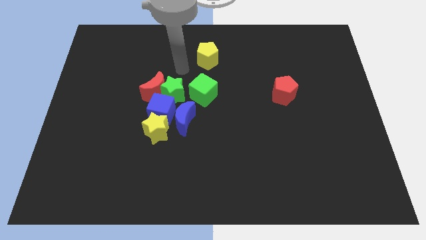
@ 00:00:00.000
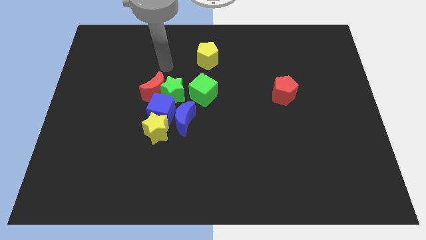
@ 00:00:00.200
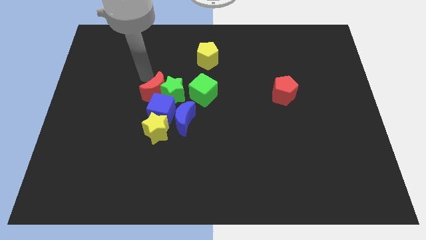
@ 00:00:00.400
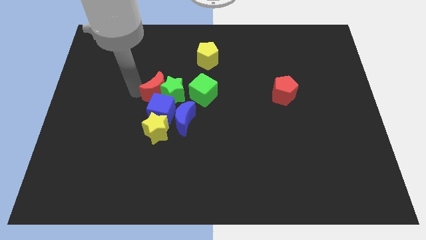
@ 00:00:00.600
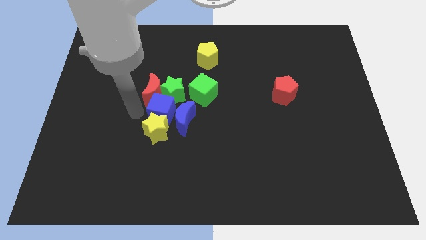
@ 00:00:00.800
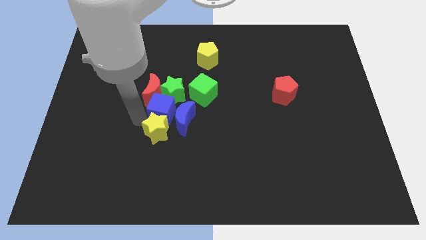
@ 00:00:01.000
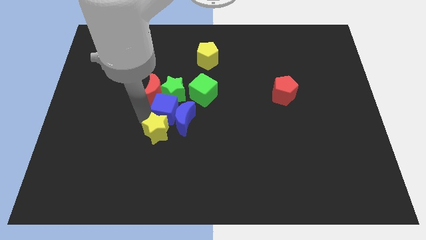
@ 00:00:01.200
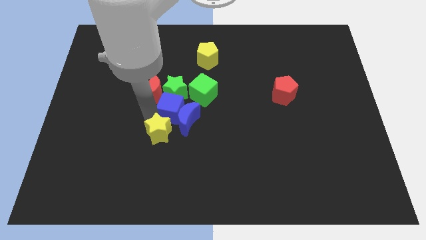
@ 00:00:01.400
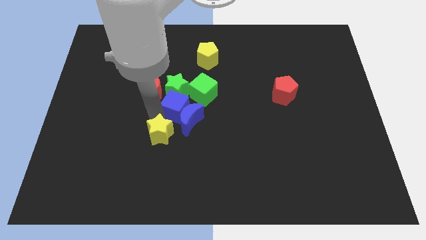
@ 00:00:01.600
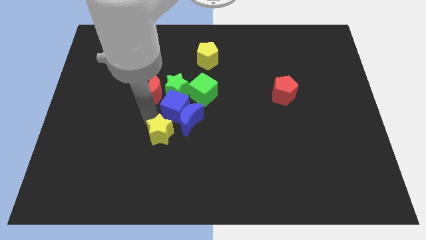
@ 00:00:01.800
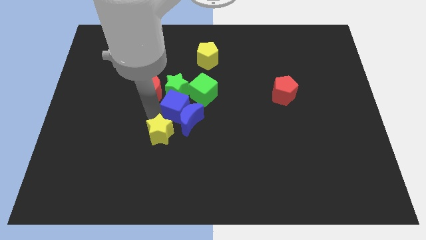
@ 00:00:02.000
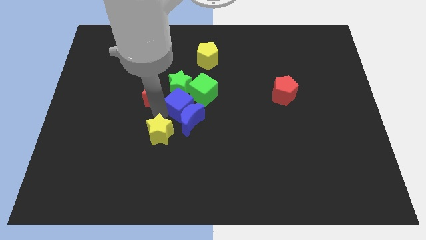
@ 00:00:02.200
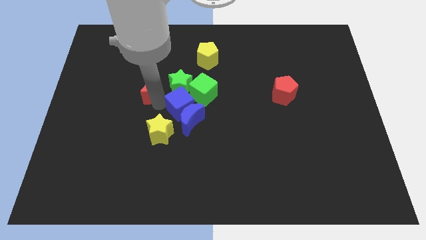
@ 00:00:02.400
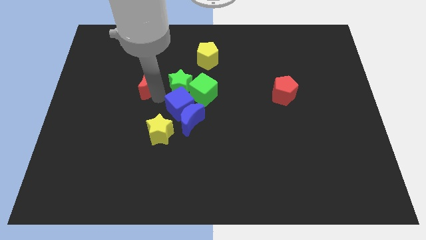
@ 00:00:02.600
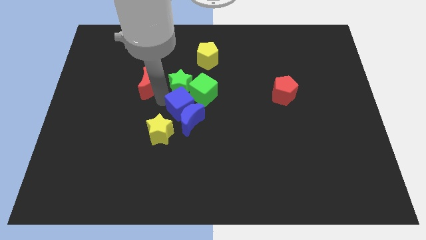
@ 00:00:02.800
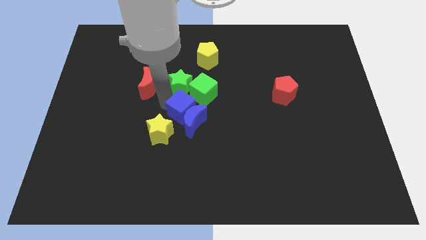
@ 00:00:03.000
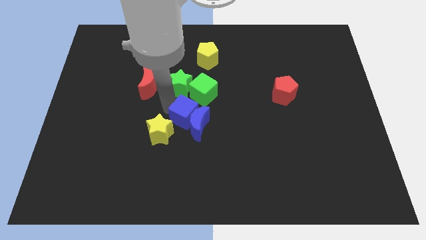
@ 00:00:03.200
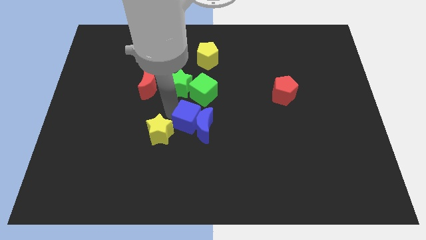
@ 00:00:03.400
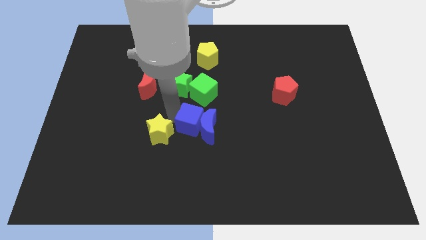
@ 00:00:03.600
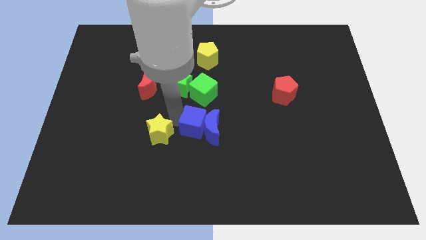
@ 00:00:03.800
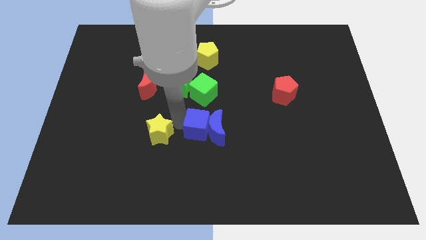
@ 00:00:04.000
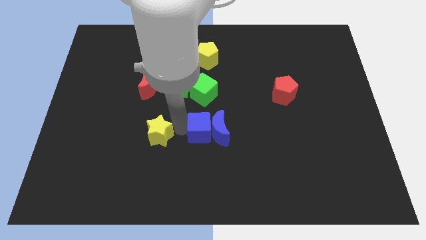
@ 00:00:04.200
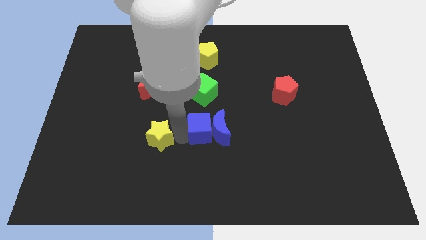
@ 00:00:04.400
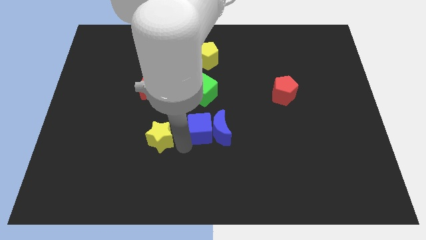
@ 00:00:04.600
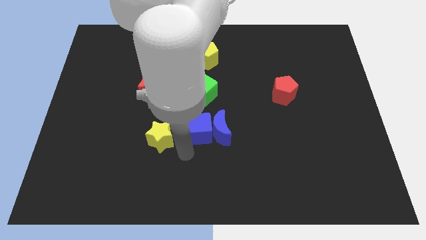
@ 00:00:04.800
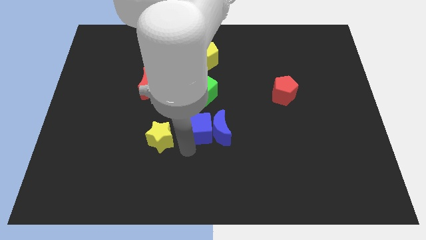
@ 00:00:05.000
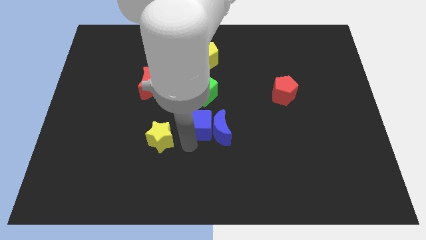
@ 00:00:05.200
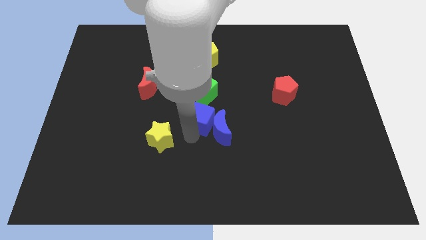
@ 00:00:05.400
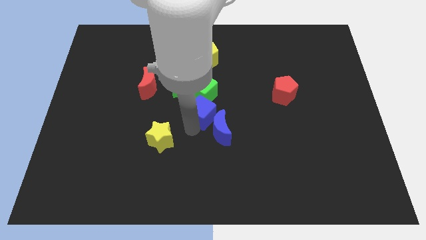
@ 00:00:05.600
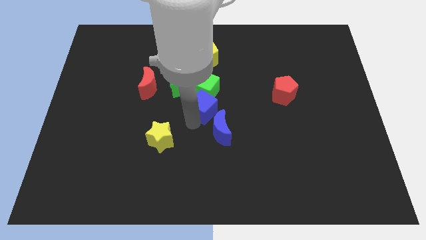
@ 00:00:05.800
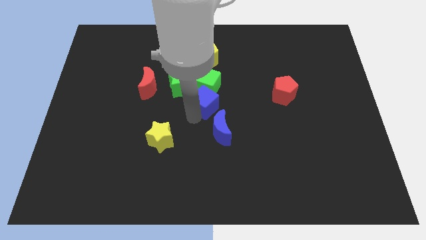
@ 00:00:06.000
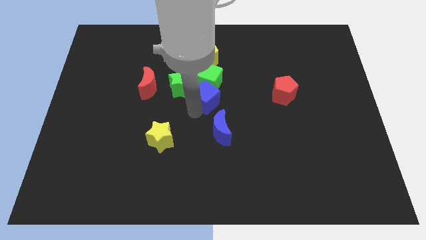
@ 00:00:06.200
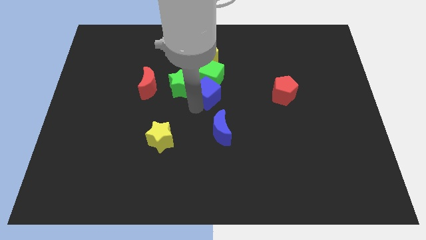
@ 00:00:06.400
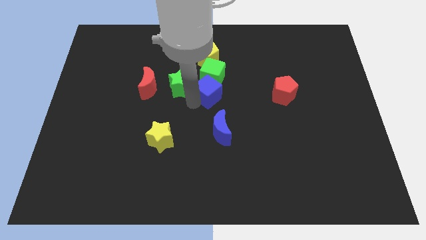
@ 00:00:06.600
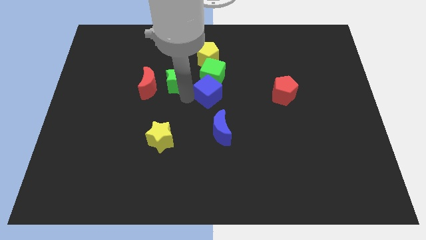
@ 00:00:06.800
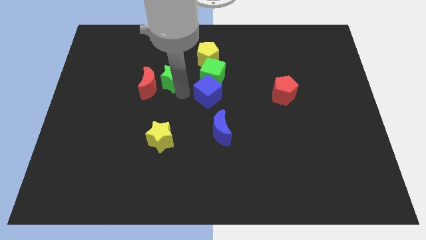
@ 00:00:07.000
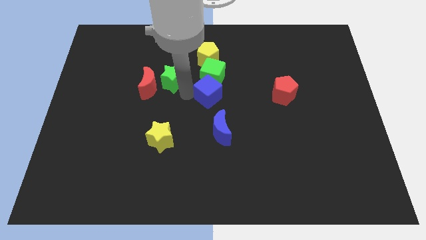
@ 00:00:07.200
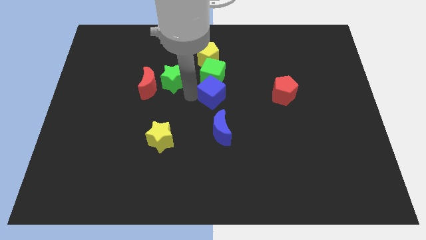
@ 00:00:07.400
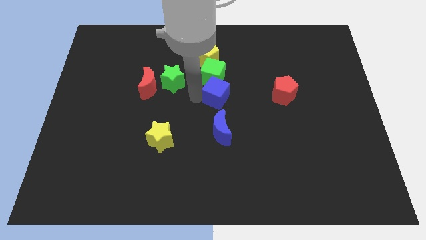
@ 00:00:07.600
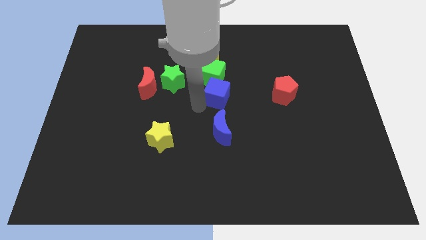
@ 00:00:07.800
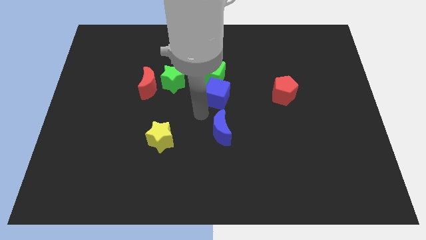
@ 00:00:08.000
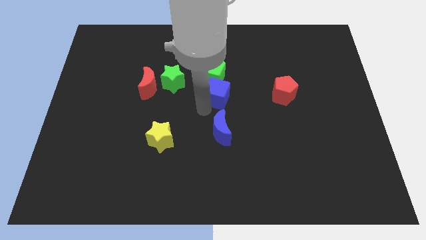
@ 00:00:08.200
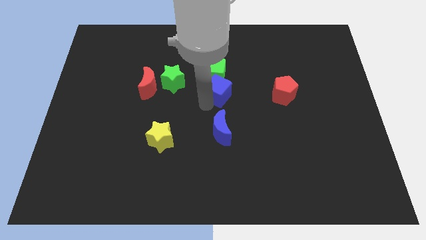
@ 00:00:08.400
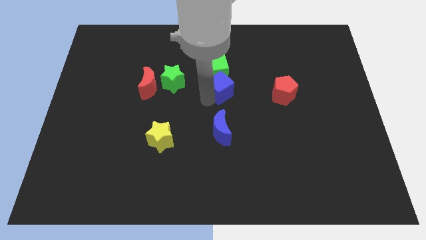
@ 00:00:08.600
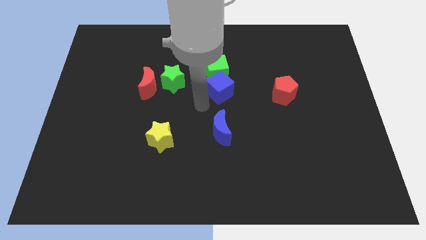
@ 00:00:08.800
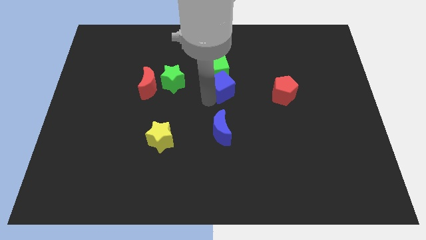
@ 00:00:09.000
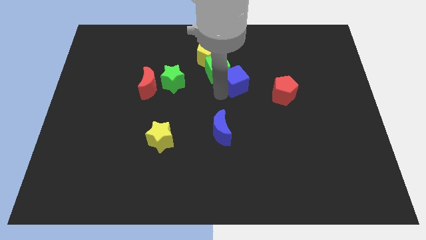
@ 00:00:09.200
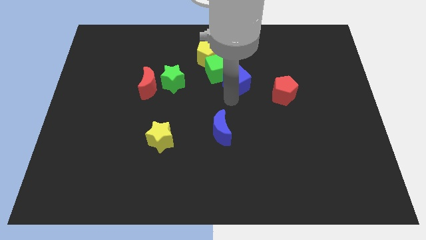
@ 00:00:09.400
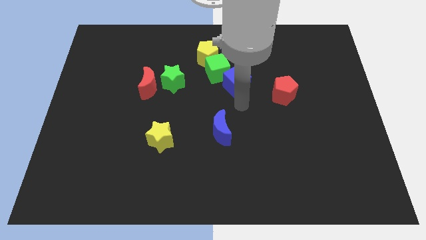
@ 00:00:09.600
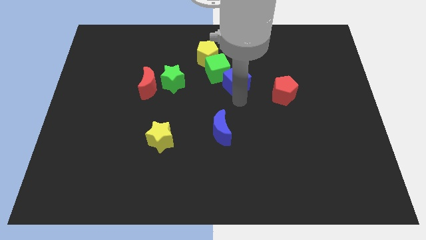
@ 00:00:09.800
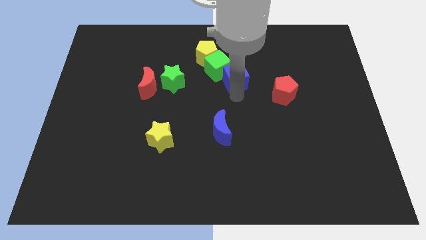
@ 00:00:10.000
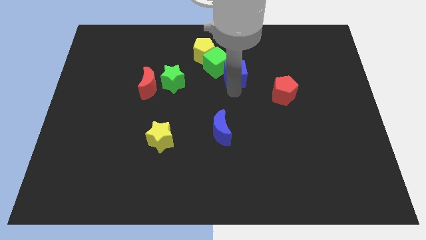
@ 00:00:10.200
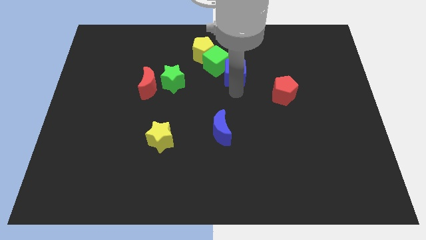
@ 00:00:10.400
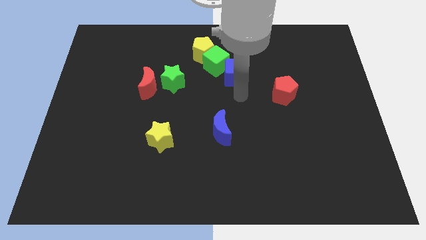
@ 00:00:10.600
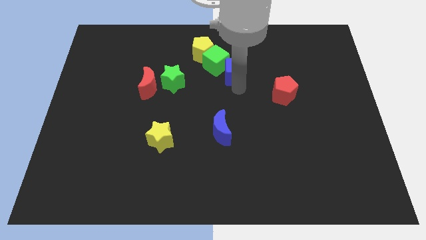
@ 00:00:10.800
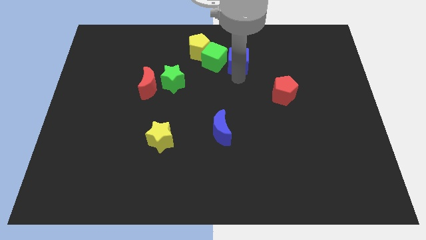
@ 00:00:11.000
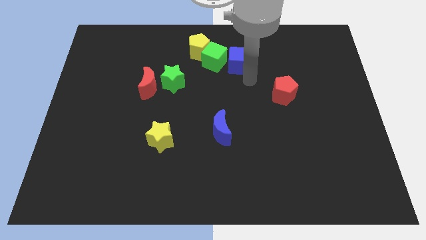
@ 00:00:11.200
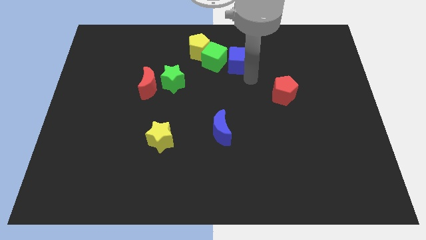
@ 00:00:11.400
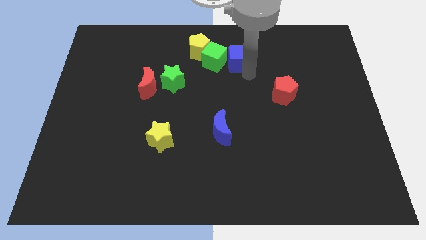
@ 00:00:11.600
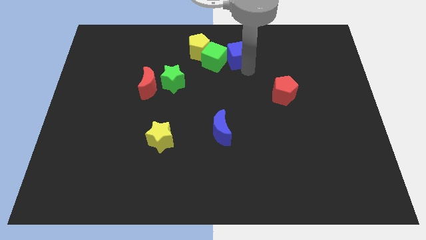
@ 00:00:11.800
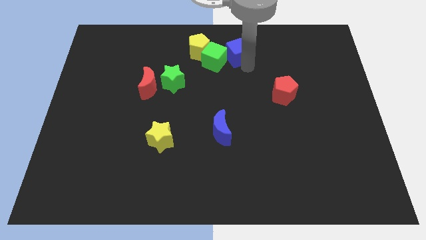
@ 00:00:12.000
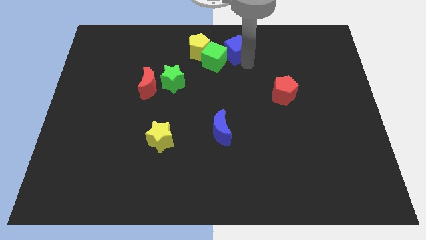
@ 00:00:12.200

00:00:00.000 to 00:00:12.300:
push the blue cube to the top side

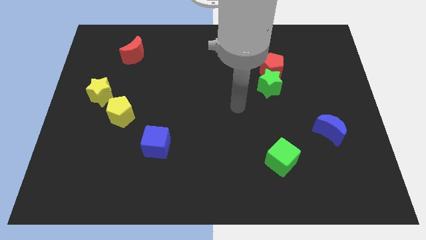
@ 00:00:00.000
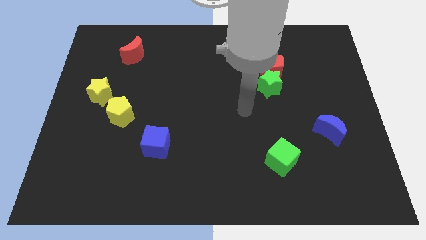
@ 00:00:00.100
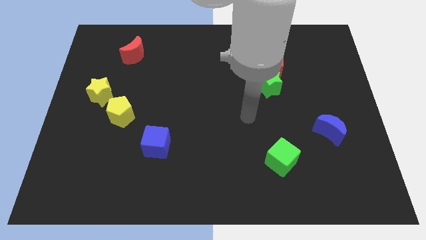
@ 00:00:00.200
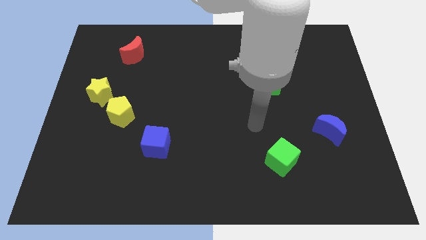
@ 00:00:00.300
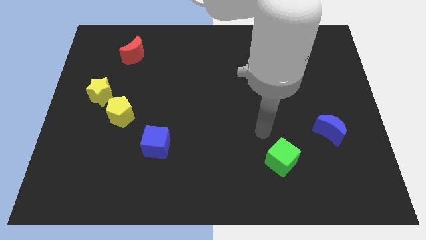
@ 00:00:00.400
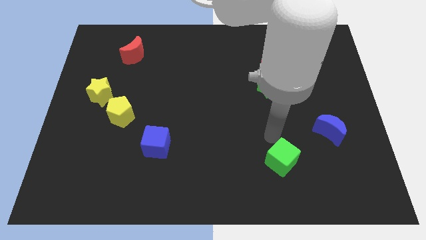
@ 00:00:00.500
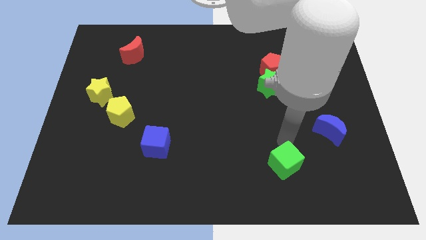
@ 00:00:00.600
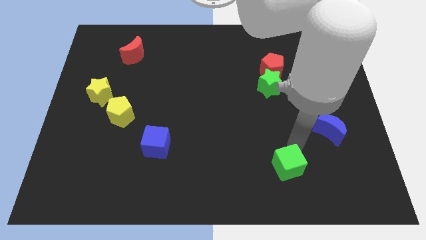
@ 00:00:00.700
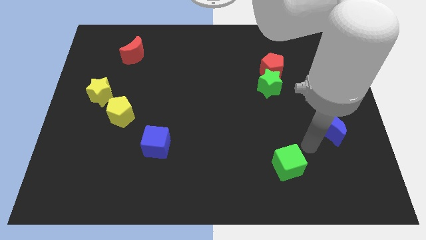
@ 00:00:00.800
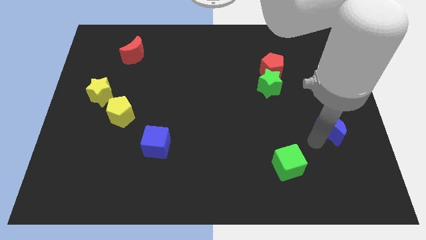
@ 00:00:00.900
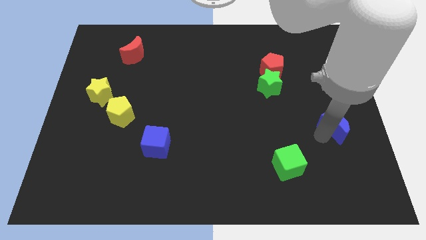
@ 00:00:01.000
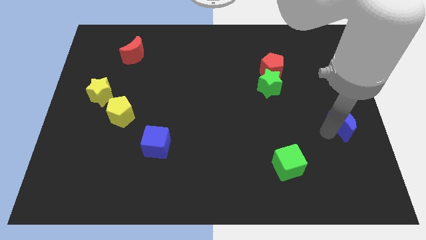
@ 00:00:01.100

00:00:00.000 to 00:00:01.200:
move the blue moon to the right side
